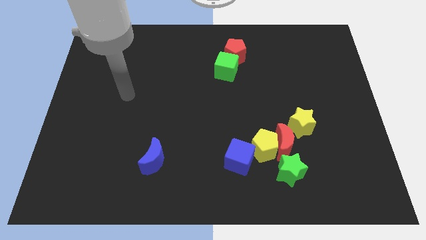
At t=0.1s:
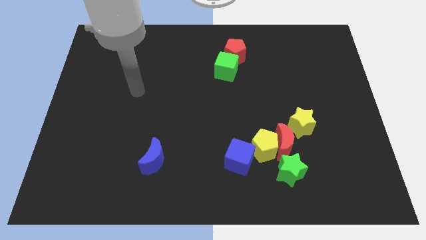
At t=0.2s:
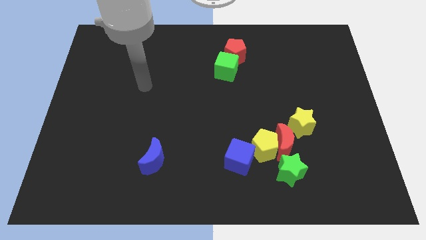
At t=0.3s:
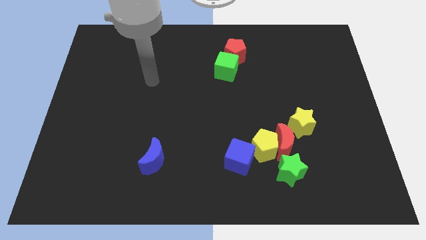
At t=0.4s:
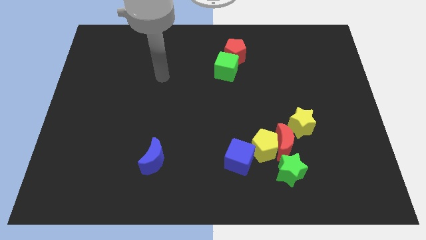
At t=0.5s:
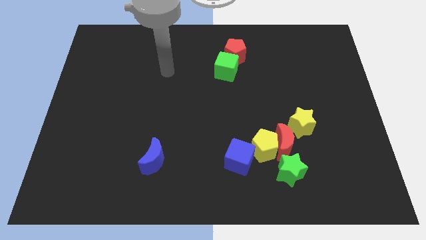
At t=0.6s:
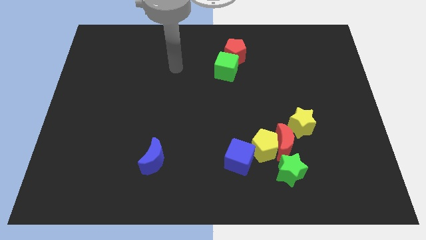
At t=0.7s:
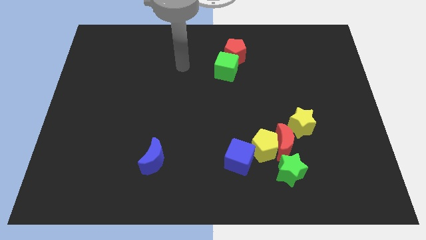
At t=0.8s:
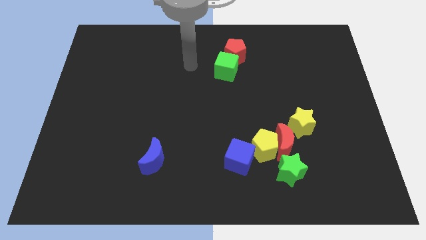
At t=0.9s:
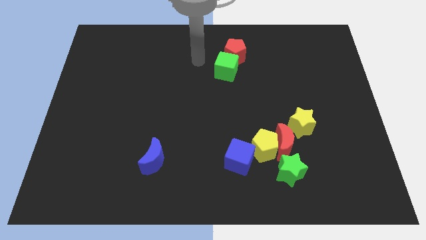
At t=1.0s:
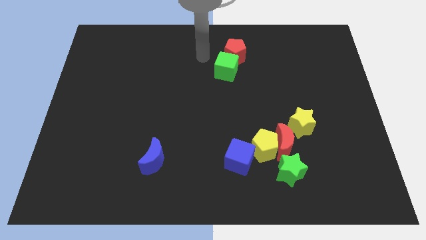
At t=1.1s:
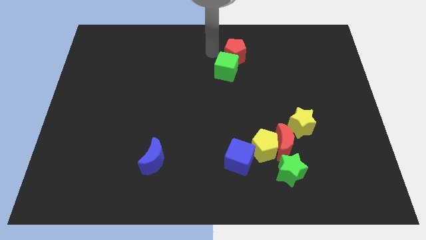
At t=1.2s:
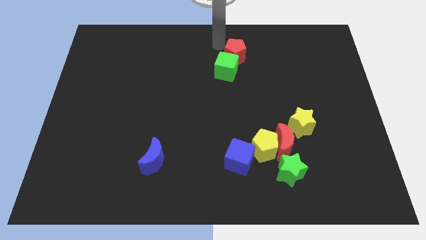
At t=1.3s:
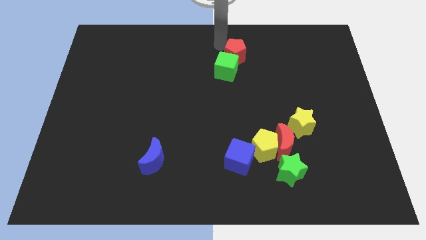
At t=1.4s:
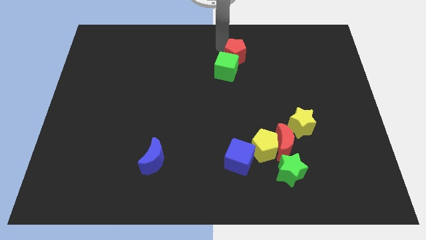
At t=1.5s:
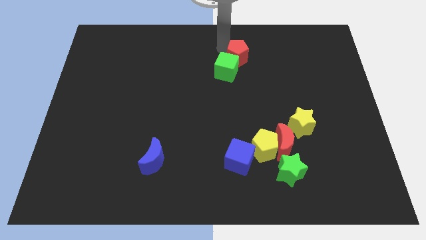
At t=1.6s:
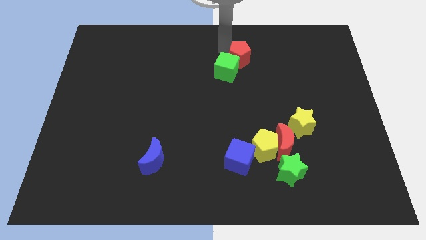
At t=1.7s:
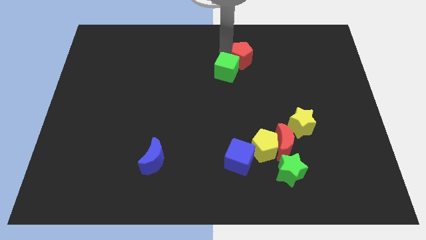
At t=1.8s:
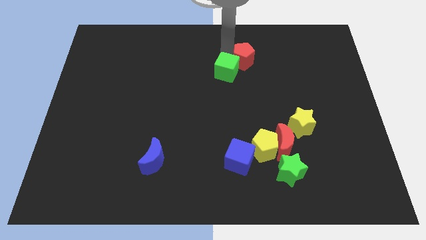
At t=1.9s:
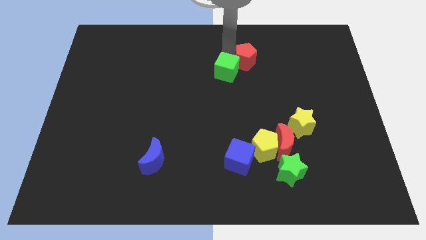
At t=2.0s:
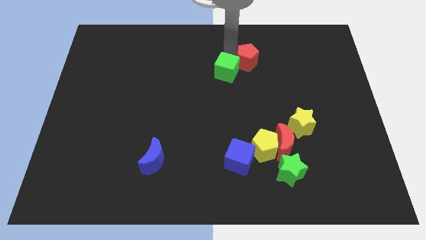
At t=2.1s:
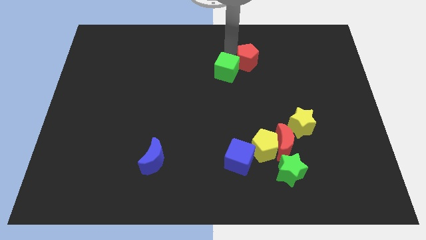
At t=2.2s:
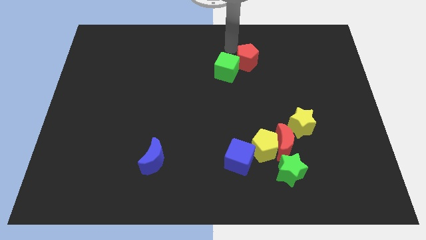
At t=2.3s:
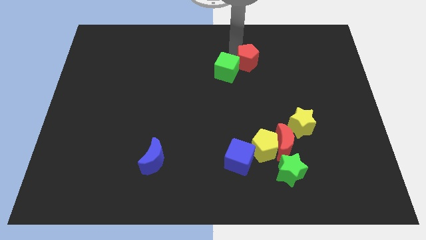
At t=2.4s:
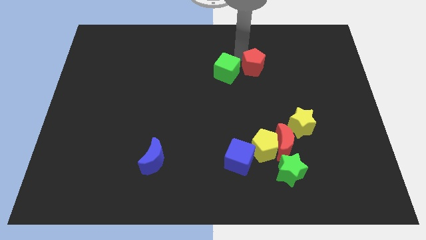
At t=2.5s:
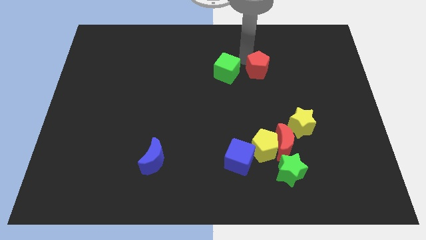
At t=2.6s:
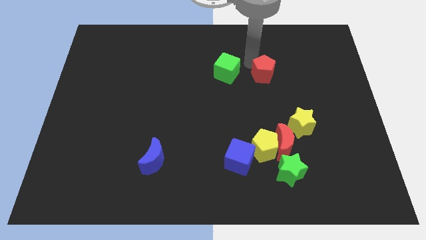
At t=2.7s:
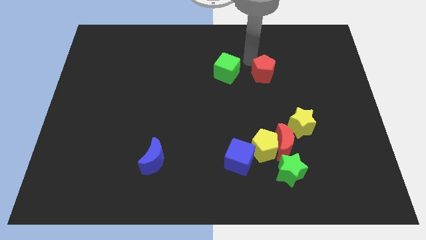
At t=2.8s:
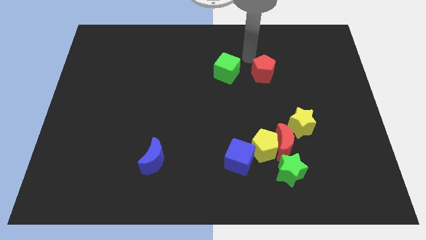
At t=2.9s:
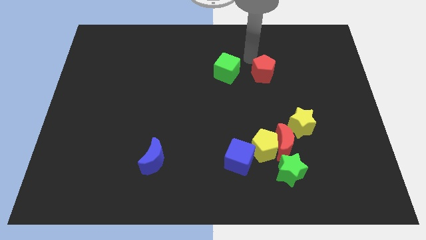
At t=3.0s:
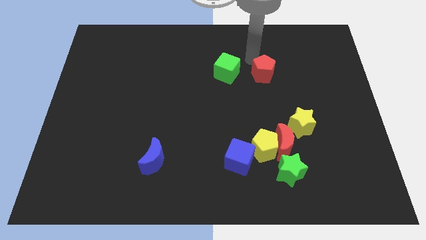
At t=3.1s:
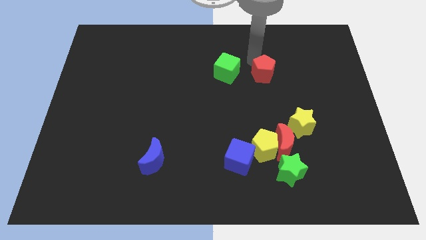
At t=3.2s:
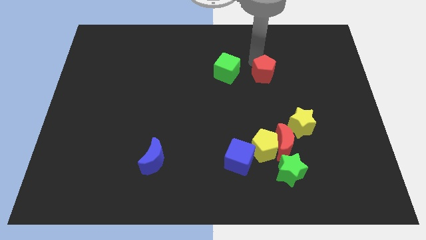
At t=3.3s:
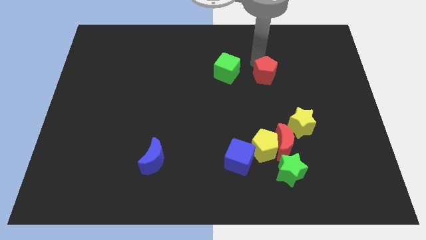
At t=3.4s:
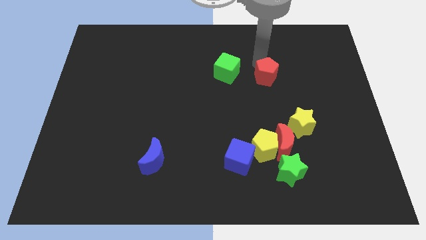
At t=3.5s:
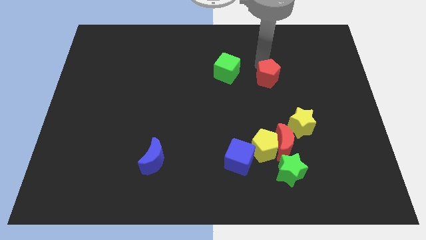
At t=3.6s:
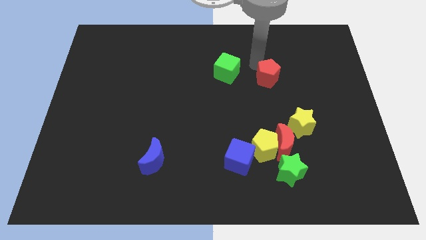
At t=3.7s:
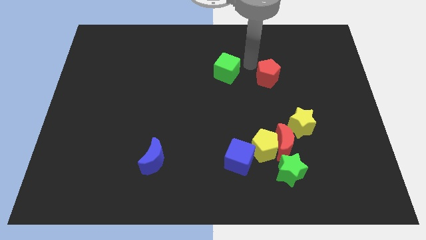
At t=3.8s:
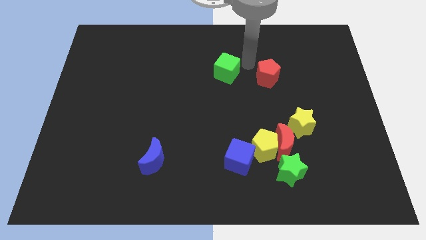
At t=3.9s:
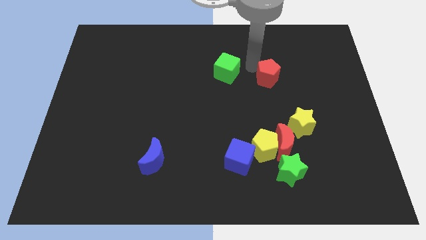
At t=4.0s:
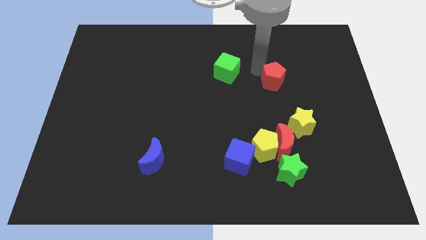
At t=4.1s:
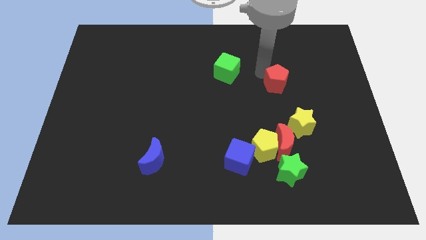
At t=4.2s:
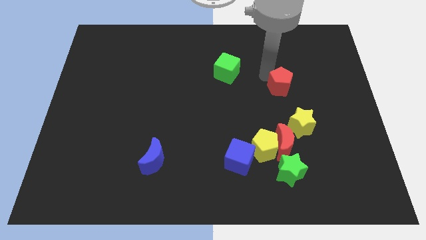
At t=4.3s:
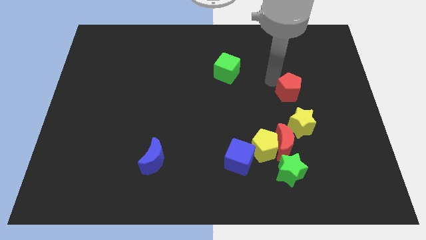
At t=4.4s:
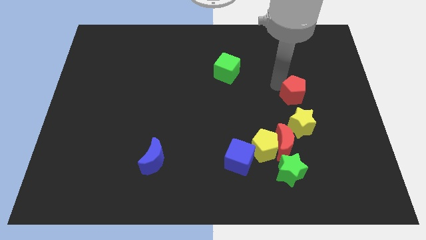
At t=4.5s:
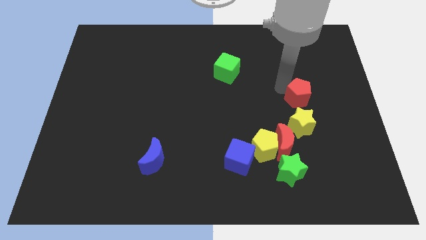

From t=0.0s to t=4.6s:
push the red pentagon down and right diagonally

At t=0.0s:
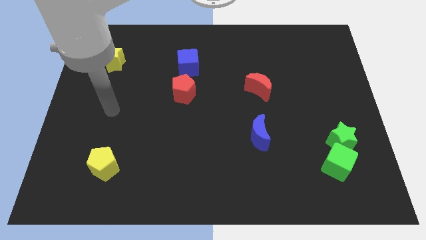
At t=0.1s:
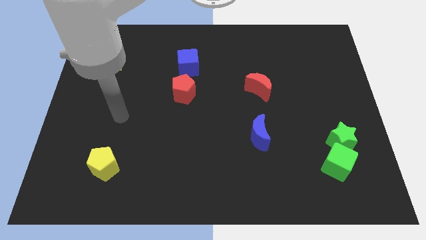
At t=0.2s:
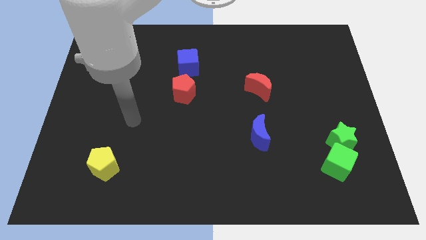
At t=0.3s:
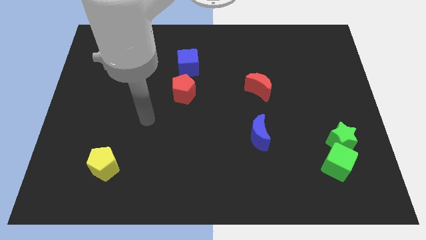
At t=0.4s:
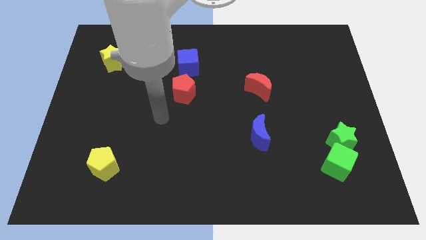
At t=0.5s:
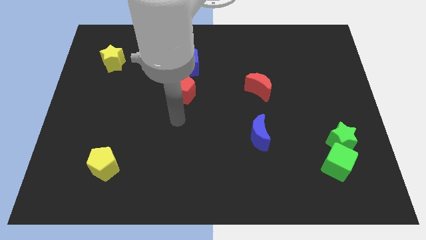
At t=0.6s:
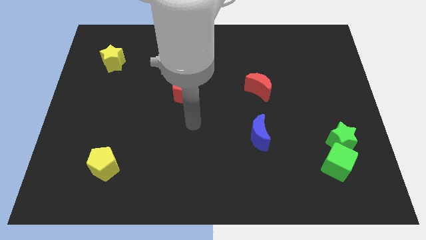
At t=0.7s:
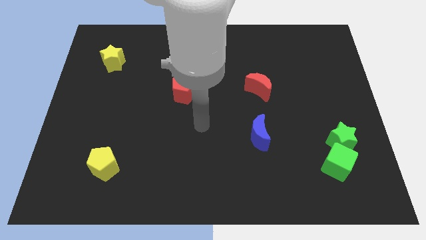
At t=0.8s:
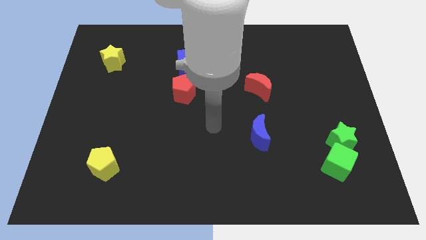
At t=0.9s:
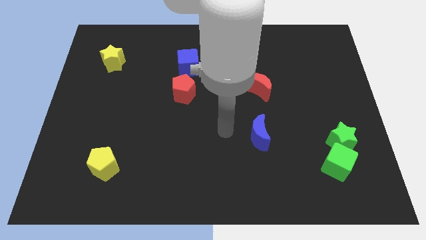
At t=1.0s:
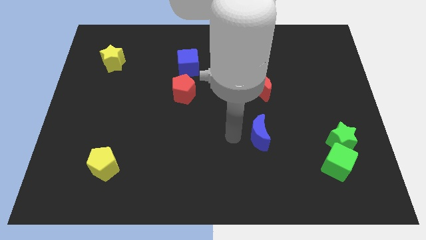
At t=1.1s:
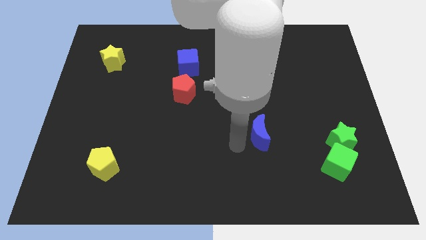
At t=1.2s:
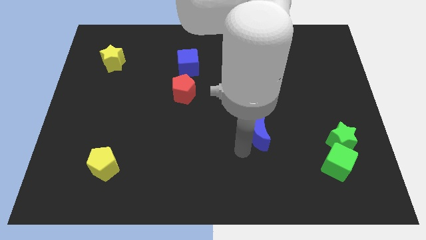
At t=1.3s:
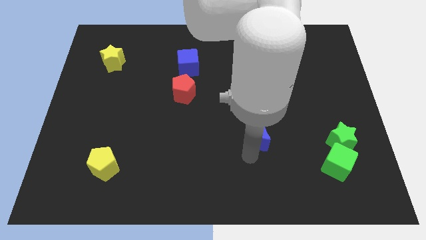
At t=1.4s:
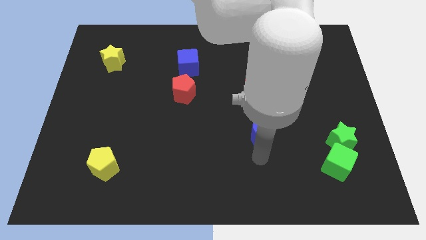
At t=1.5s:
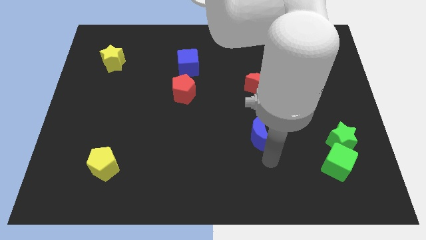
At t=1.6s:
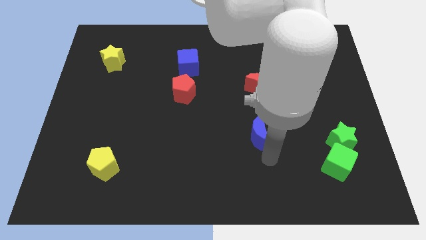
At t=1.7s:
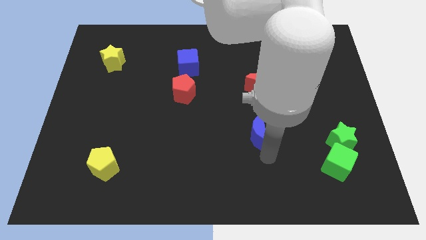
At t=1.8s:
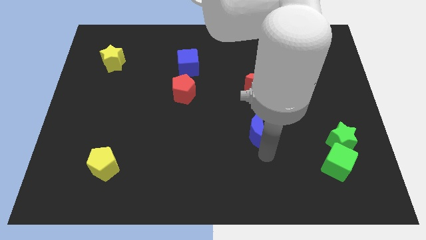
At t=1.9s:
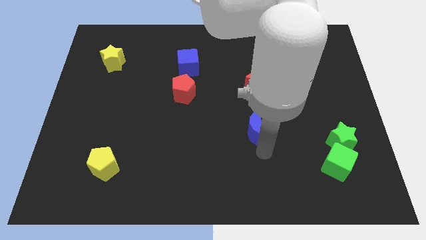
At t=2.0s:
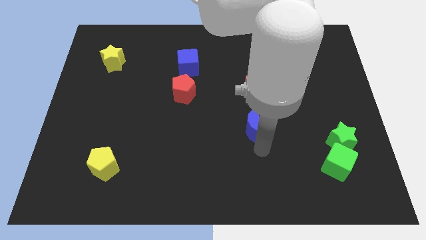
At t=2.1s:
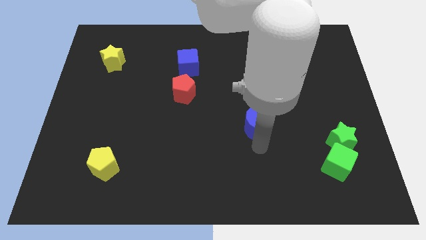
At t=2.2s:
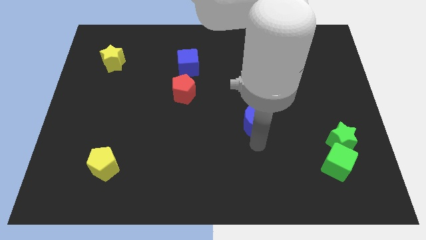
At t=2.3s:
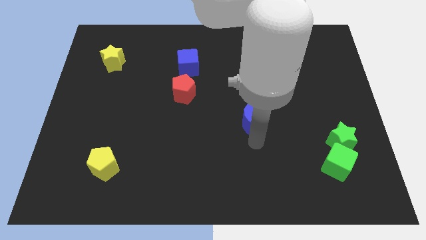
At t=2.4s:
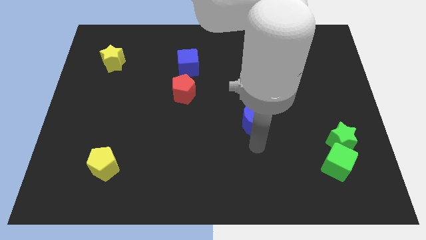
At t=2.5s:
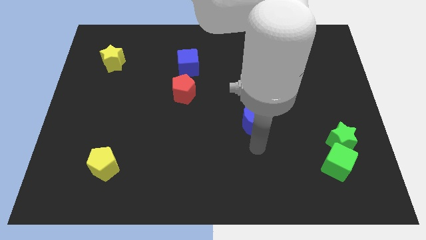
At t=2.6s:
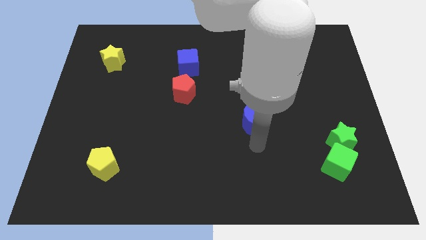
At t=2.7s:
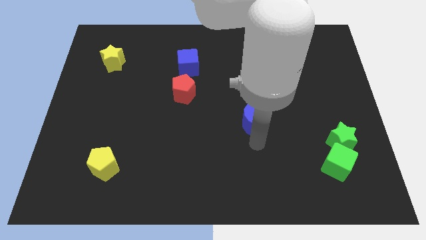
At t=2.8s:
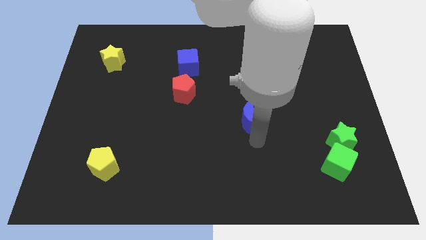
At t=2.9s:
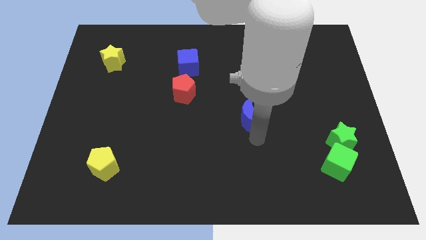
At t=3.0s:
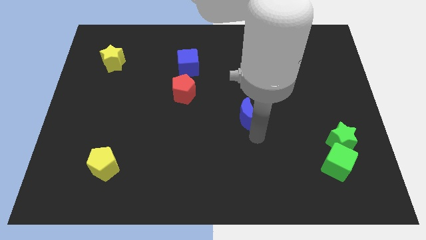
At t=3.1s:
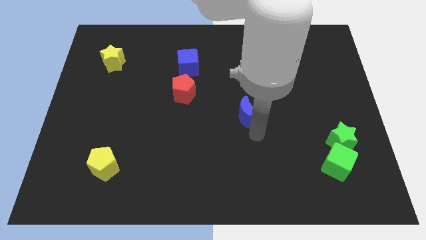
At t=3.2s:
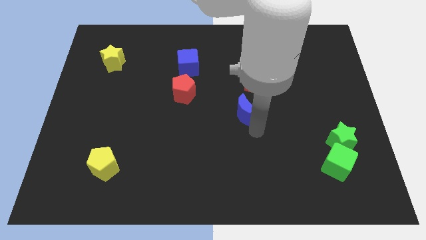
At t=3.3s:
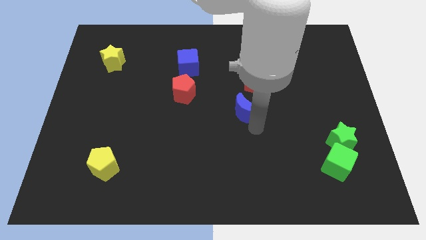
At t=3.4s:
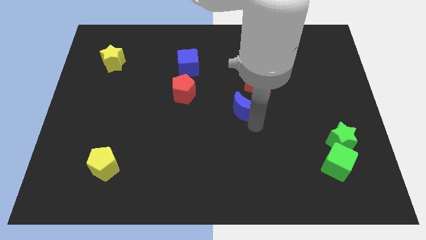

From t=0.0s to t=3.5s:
move the blue moon a bit up

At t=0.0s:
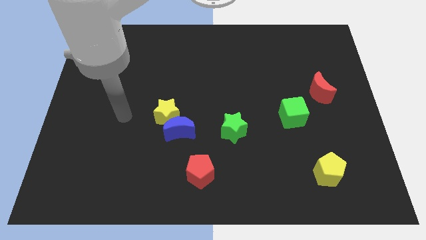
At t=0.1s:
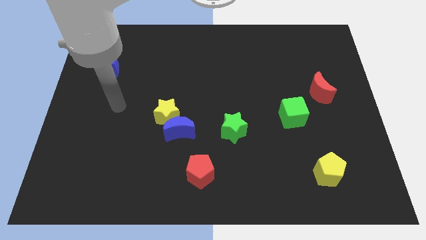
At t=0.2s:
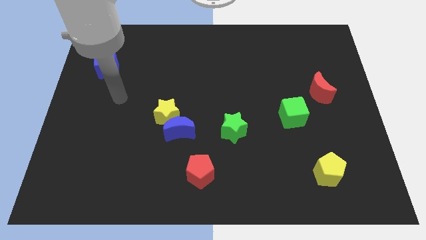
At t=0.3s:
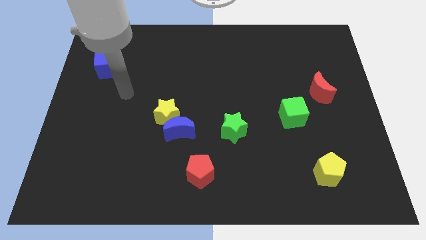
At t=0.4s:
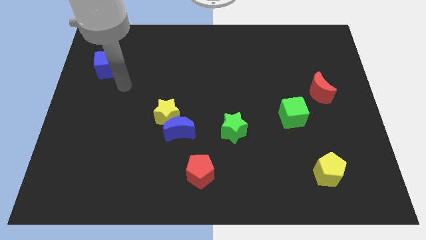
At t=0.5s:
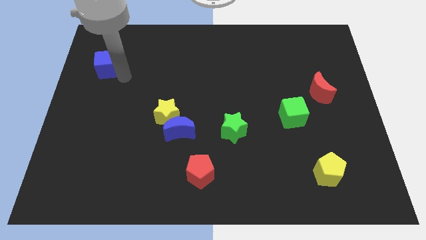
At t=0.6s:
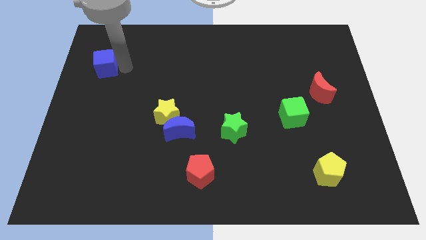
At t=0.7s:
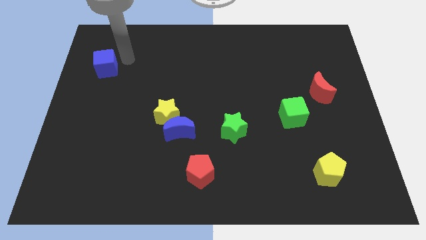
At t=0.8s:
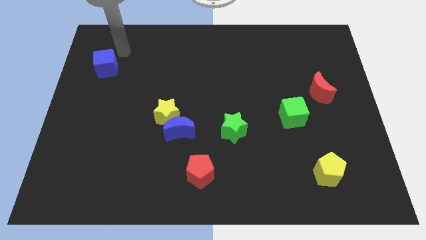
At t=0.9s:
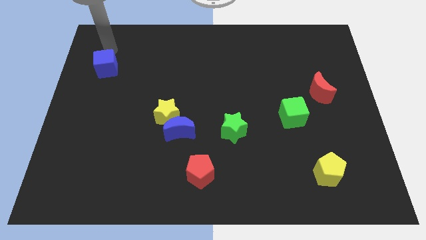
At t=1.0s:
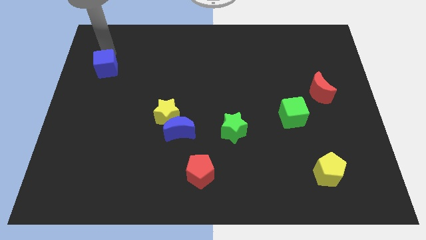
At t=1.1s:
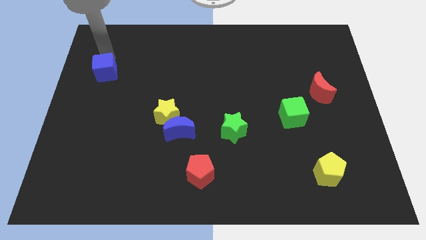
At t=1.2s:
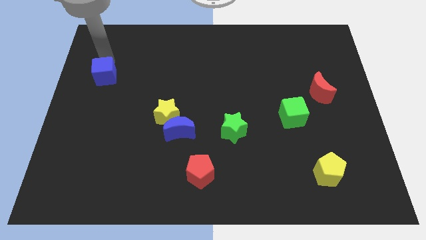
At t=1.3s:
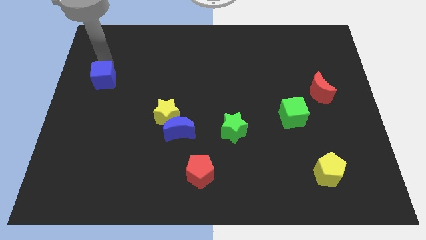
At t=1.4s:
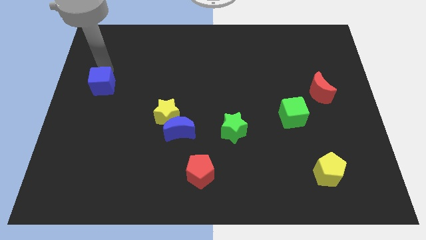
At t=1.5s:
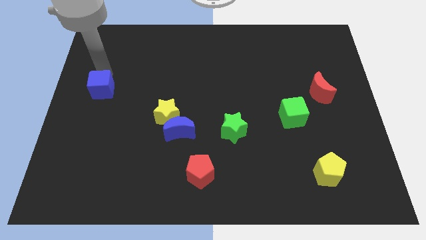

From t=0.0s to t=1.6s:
slightly move the blue cube downwards
